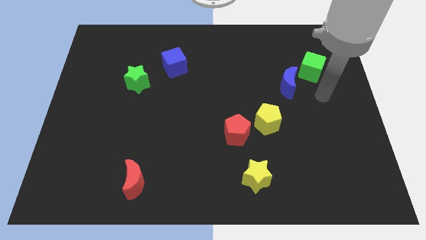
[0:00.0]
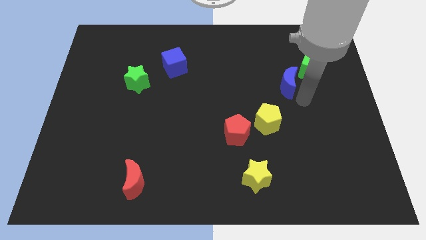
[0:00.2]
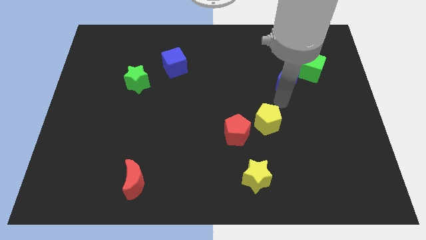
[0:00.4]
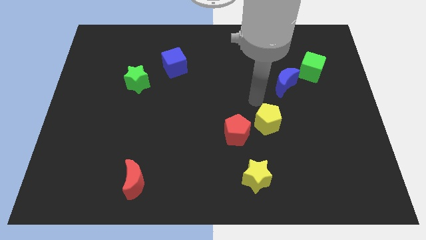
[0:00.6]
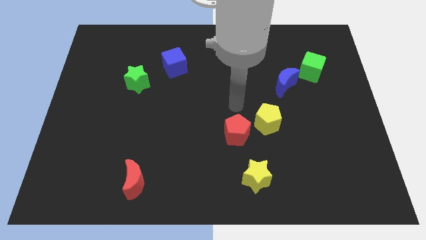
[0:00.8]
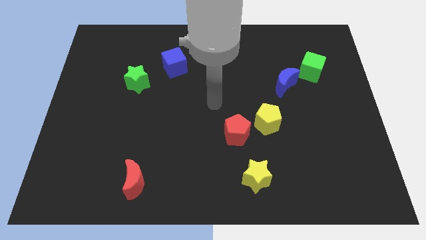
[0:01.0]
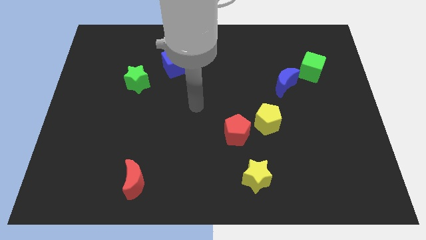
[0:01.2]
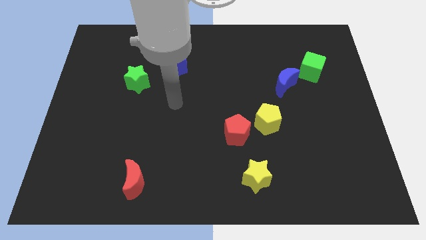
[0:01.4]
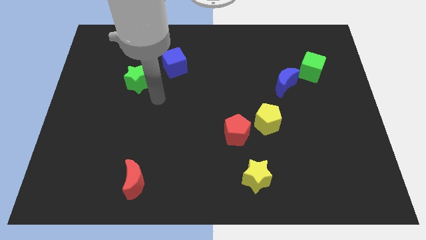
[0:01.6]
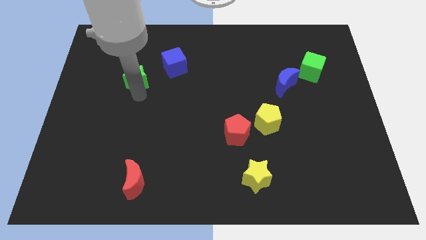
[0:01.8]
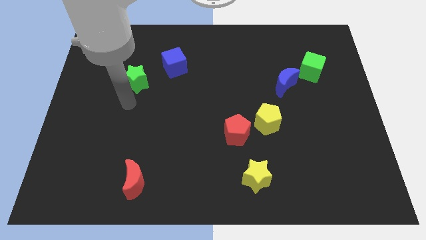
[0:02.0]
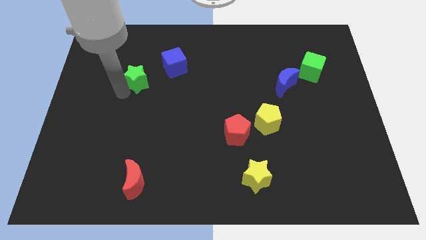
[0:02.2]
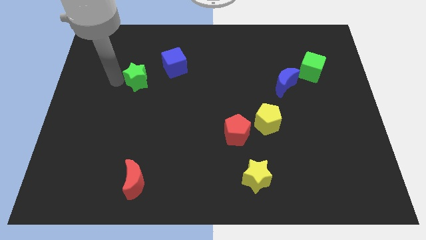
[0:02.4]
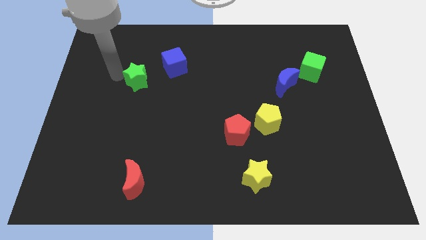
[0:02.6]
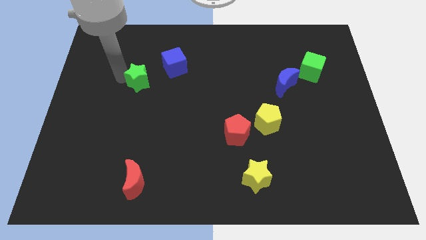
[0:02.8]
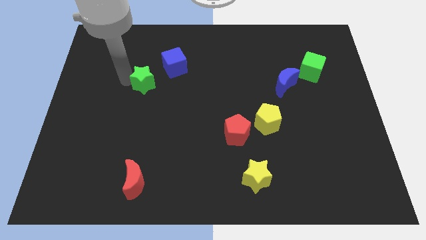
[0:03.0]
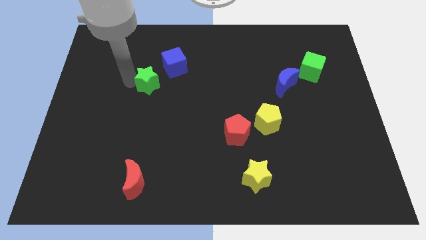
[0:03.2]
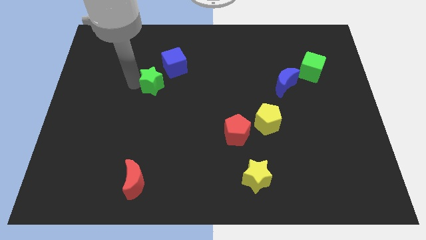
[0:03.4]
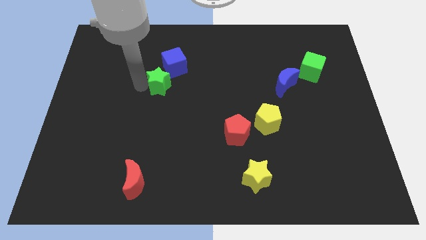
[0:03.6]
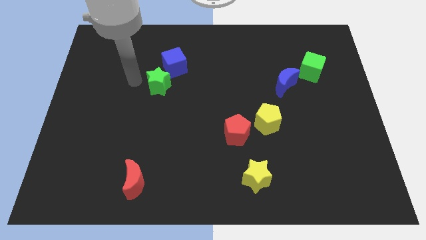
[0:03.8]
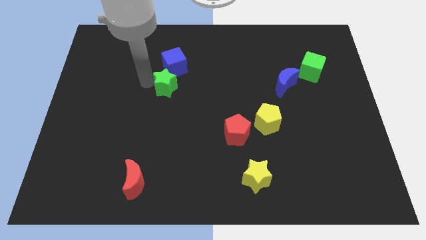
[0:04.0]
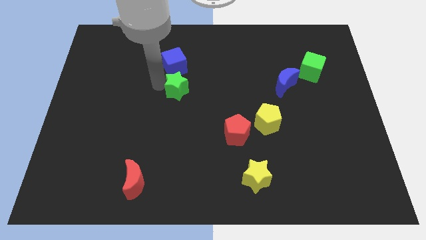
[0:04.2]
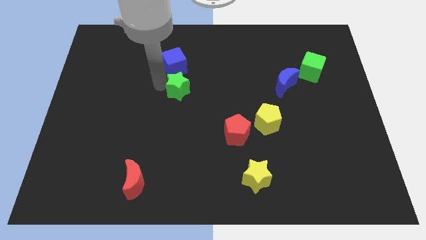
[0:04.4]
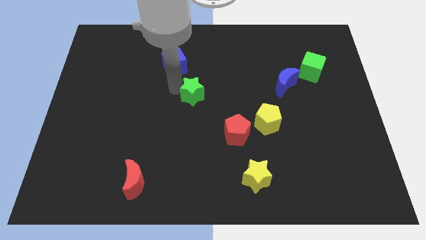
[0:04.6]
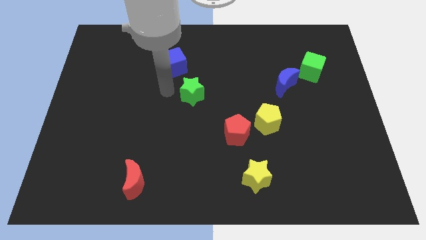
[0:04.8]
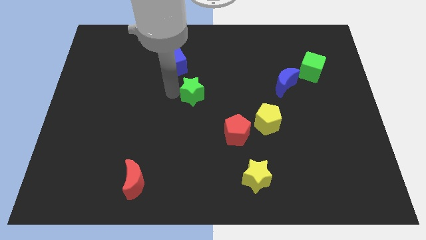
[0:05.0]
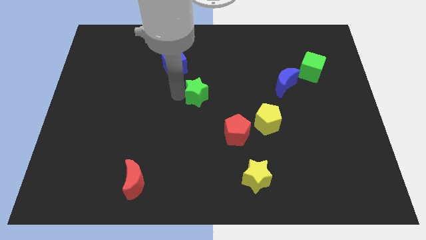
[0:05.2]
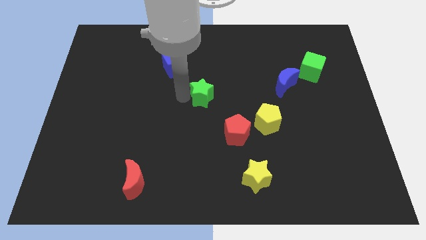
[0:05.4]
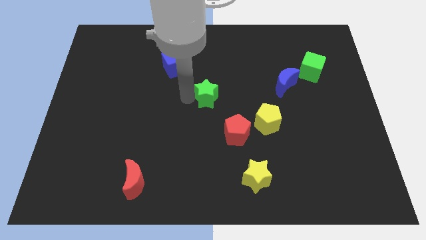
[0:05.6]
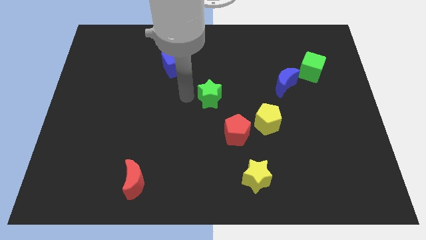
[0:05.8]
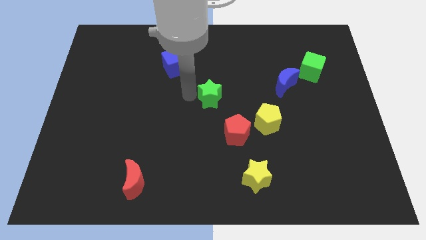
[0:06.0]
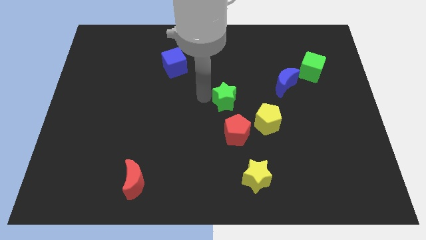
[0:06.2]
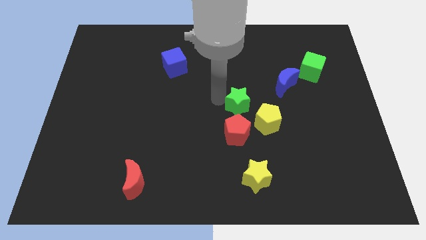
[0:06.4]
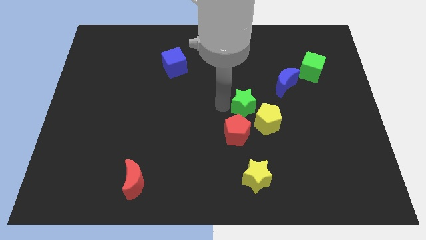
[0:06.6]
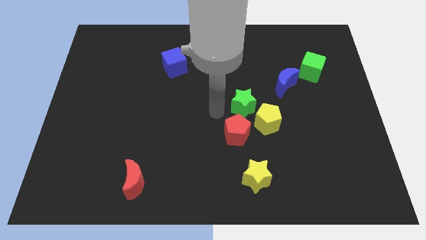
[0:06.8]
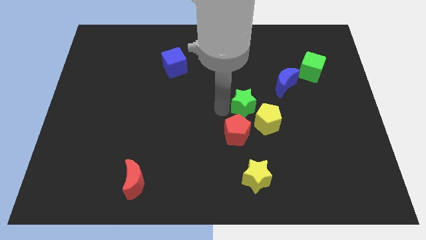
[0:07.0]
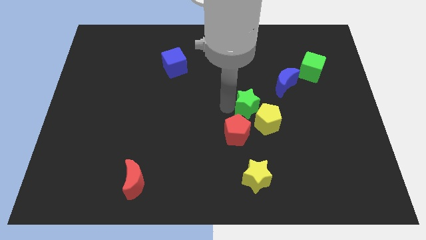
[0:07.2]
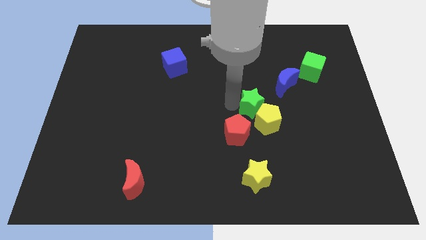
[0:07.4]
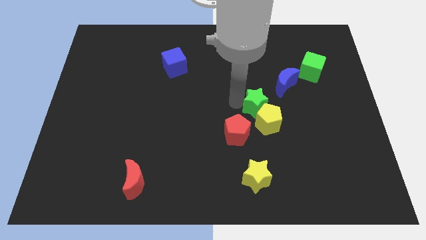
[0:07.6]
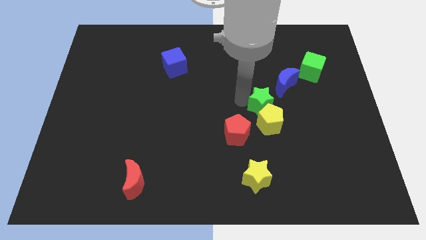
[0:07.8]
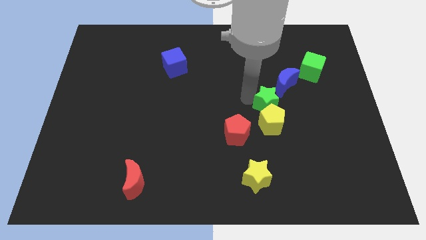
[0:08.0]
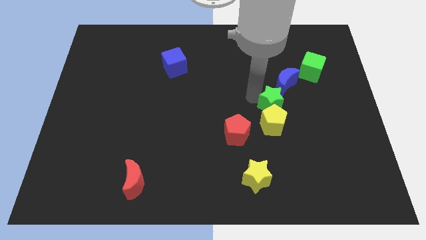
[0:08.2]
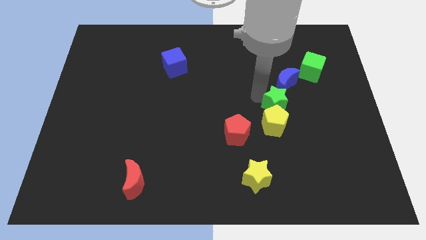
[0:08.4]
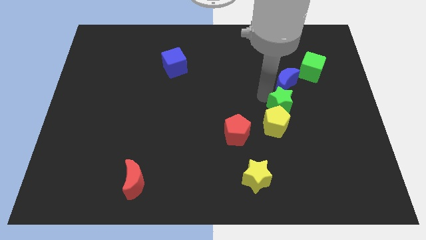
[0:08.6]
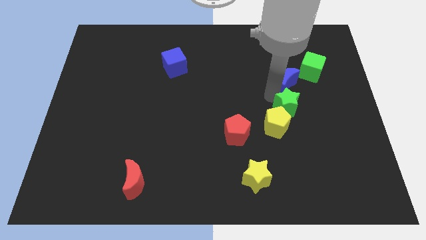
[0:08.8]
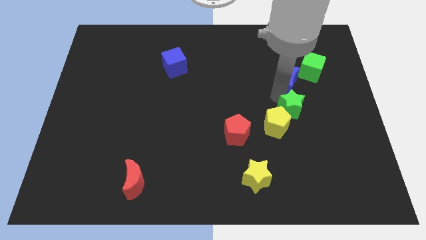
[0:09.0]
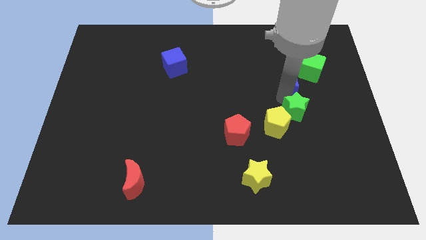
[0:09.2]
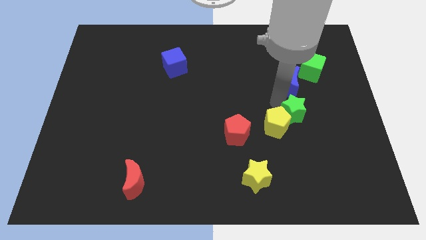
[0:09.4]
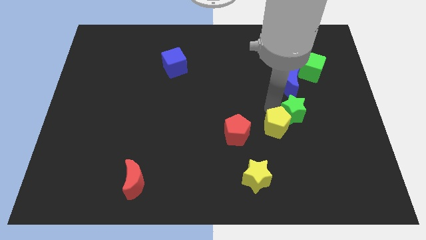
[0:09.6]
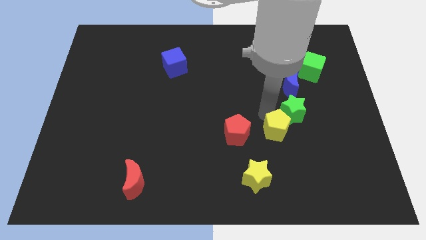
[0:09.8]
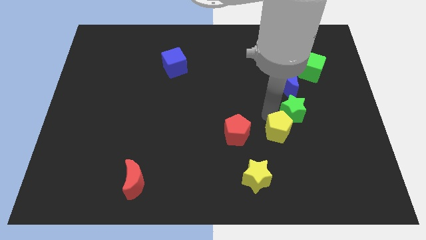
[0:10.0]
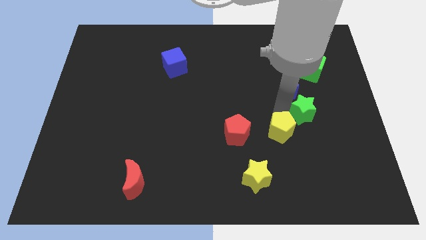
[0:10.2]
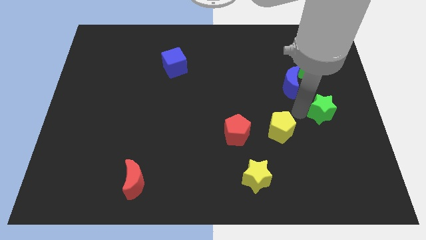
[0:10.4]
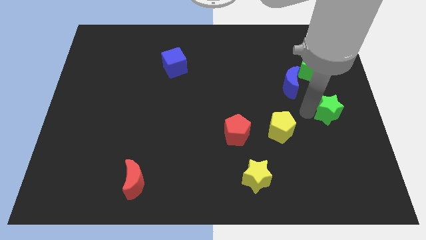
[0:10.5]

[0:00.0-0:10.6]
slide the green star to the right side

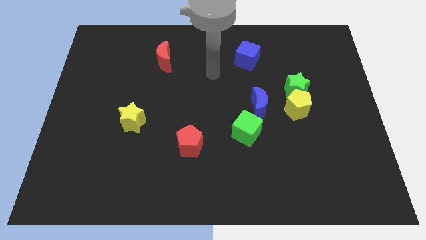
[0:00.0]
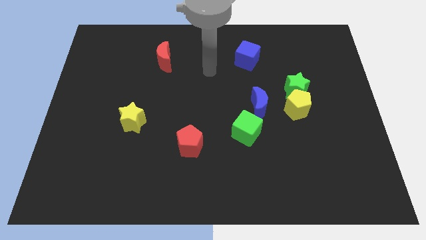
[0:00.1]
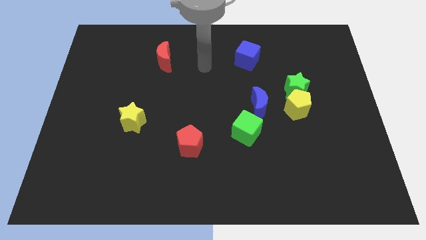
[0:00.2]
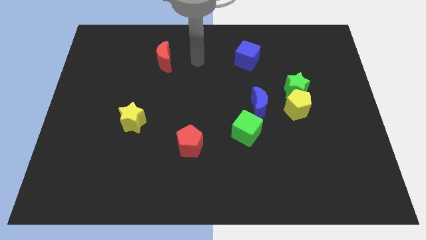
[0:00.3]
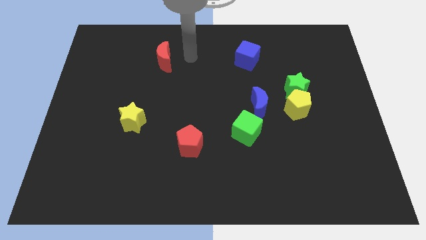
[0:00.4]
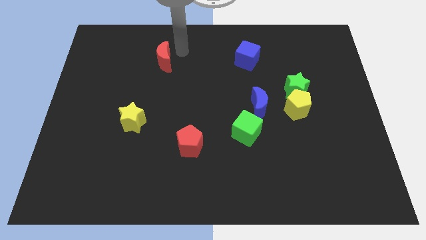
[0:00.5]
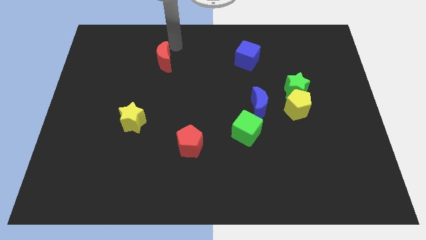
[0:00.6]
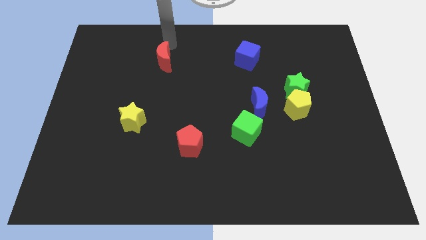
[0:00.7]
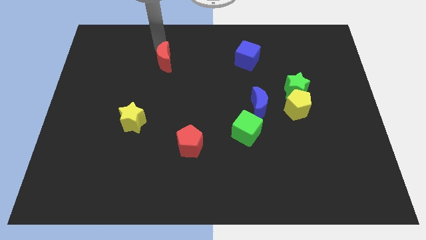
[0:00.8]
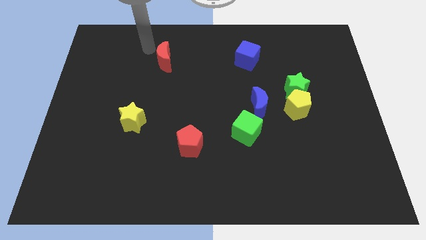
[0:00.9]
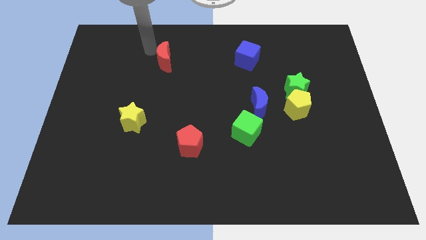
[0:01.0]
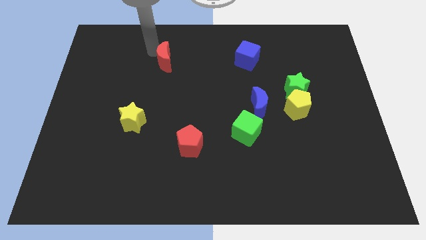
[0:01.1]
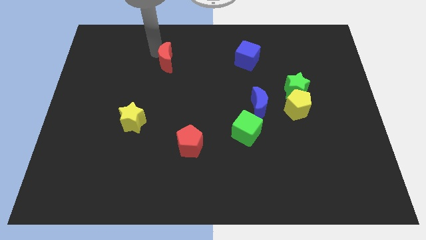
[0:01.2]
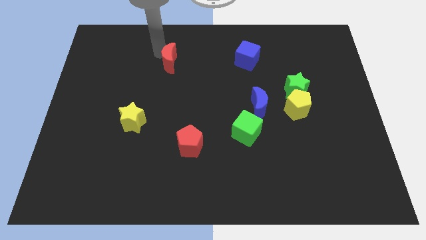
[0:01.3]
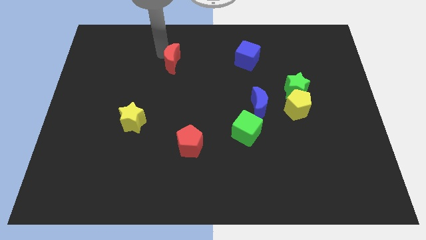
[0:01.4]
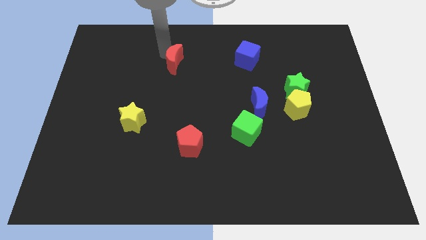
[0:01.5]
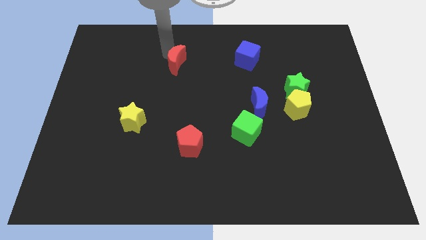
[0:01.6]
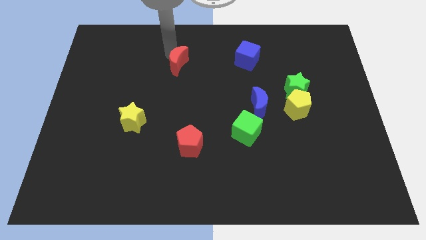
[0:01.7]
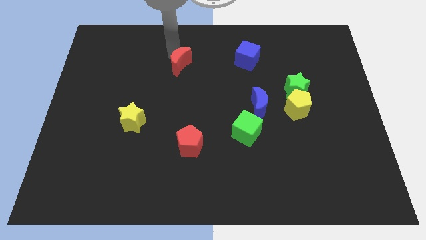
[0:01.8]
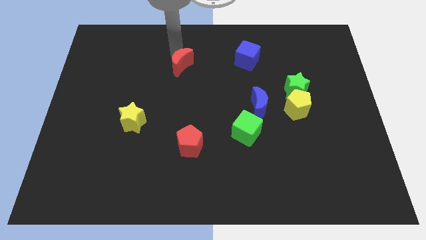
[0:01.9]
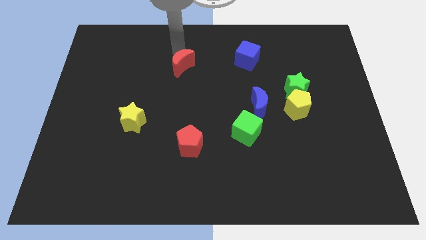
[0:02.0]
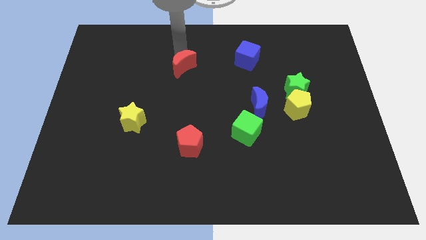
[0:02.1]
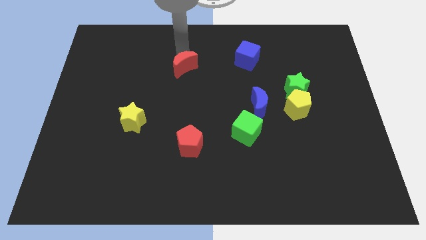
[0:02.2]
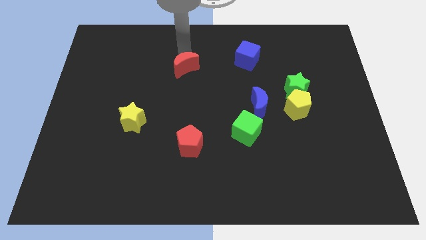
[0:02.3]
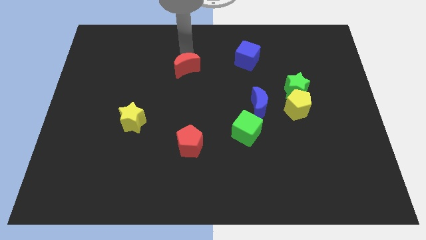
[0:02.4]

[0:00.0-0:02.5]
push the red moon to the middle
